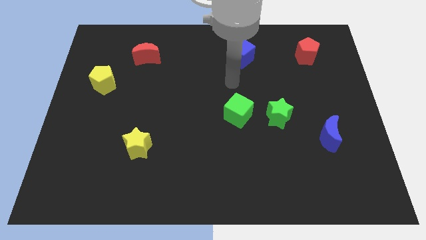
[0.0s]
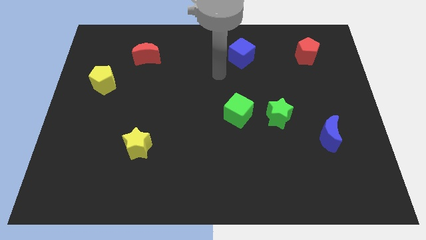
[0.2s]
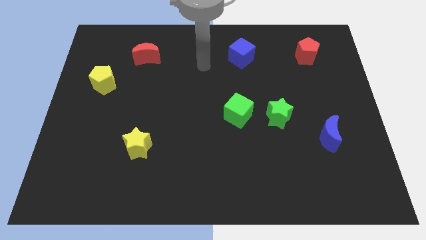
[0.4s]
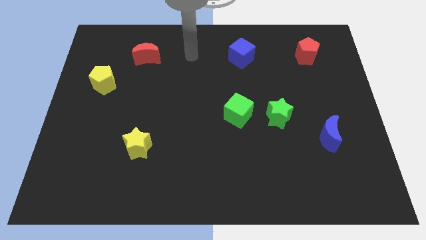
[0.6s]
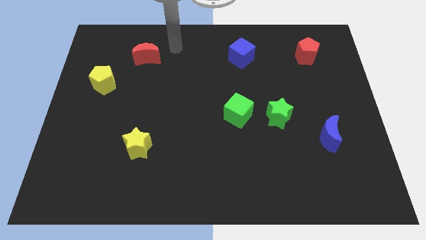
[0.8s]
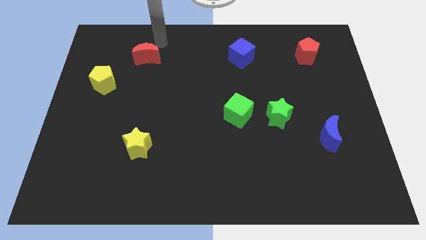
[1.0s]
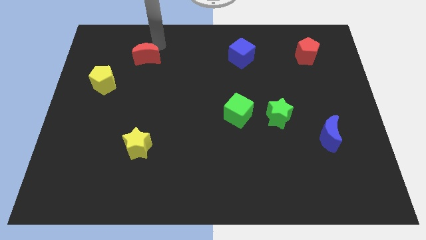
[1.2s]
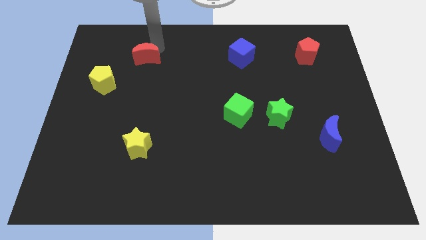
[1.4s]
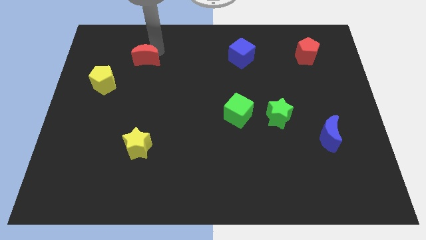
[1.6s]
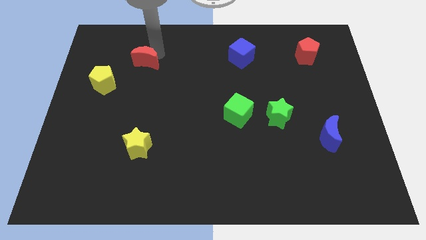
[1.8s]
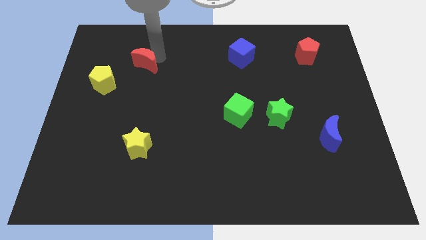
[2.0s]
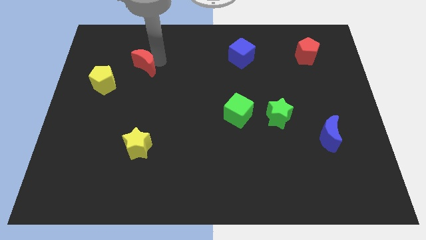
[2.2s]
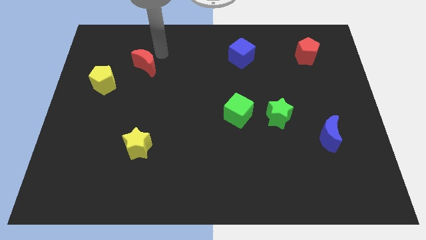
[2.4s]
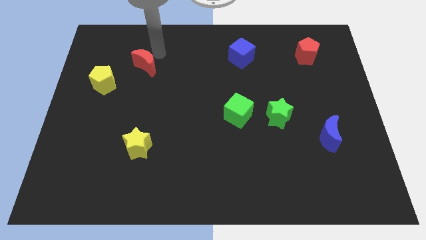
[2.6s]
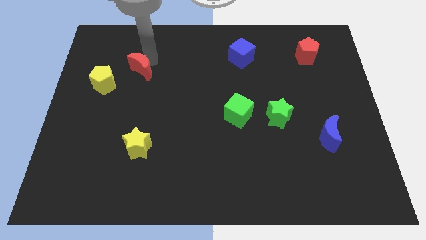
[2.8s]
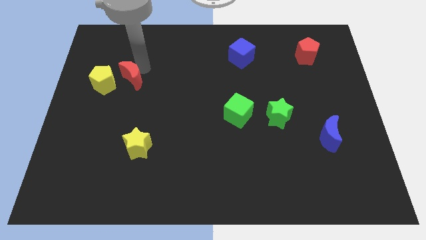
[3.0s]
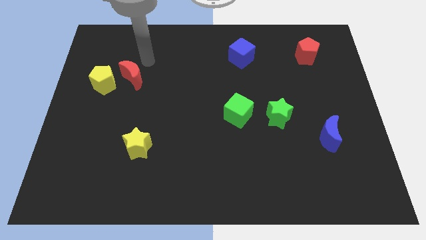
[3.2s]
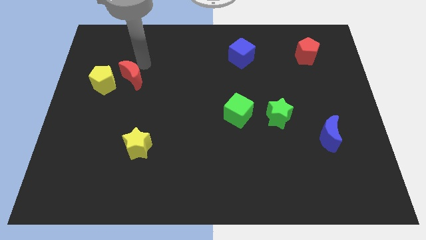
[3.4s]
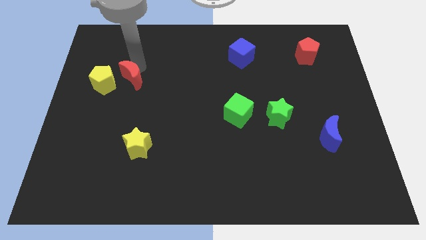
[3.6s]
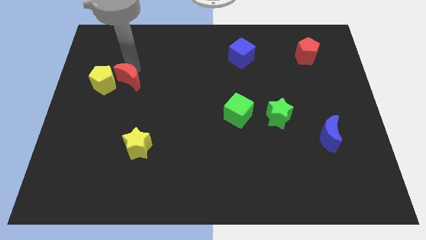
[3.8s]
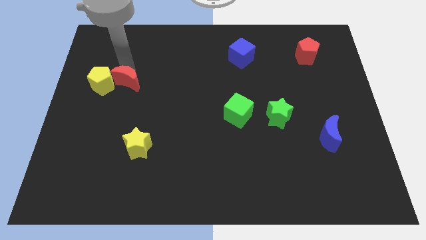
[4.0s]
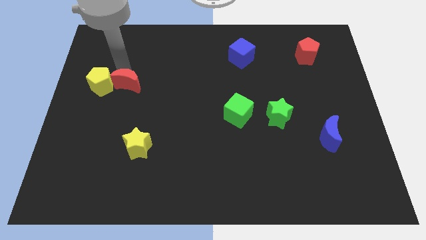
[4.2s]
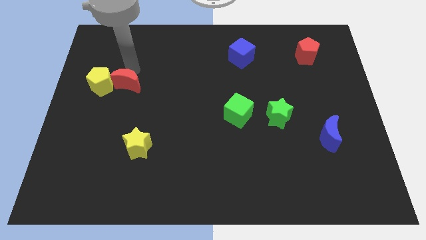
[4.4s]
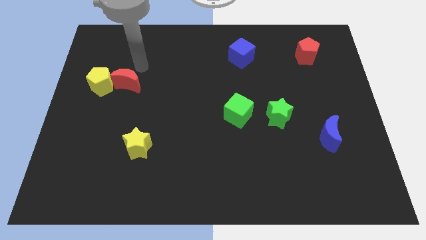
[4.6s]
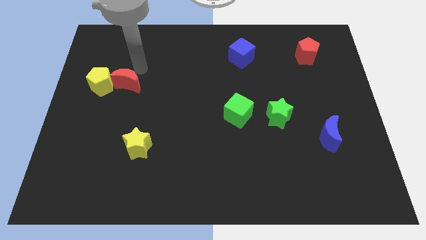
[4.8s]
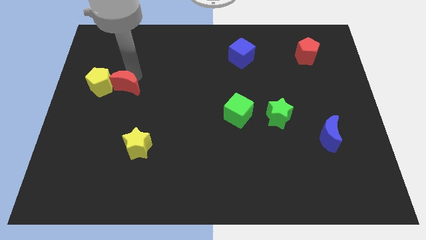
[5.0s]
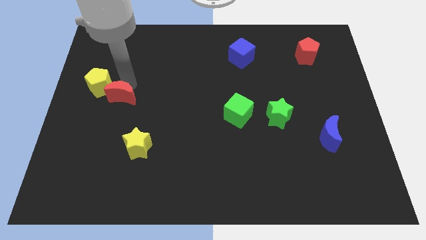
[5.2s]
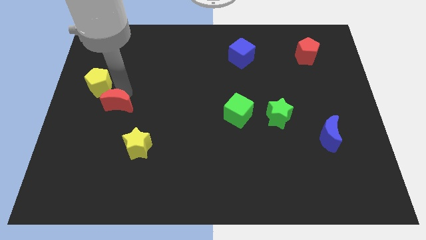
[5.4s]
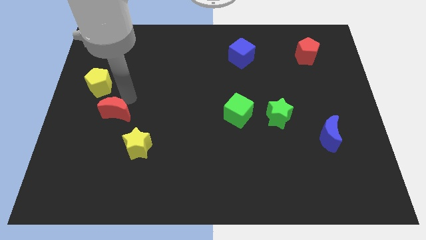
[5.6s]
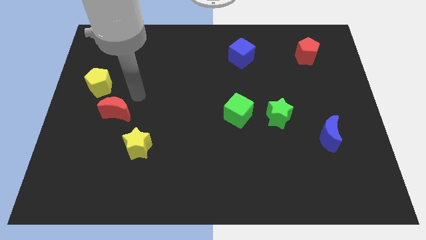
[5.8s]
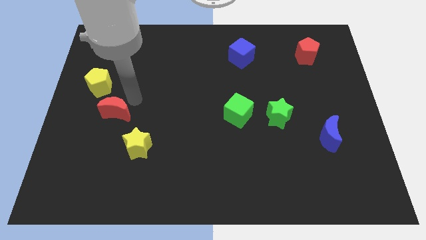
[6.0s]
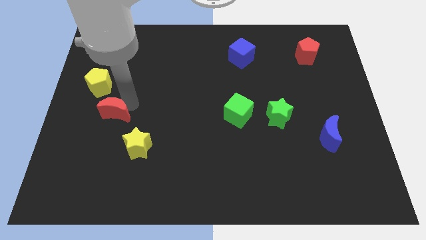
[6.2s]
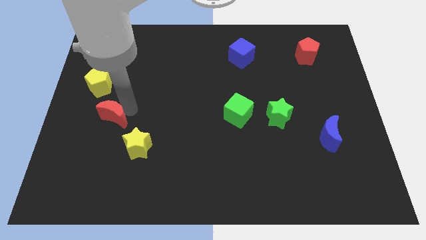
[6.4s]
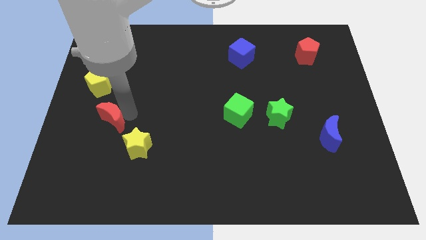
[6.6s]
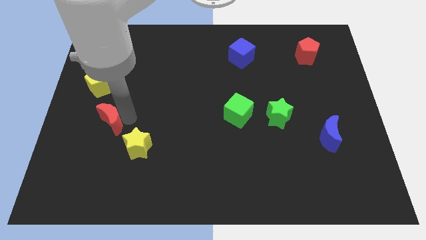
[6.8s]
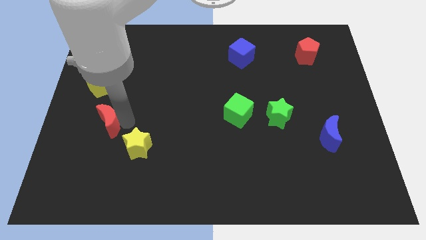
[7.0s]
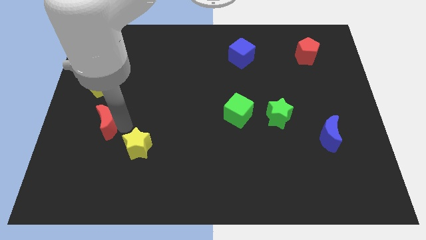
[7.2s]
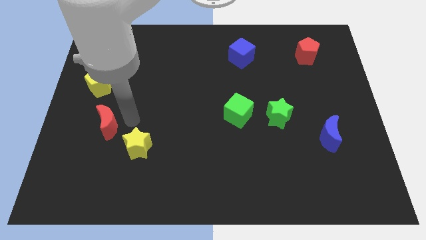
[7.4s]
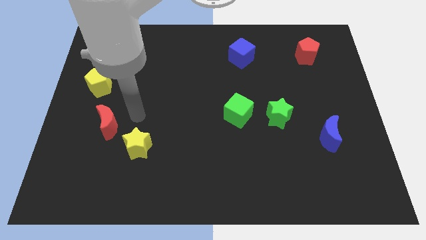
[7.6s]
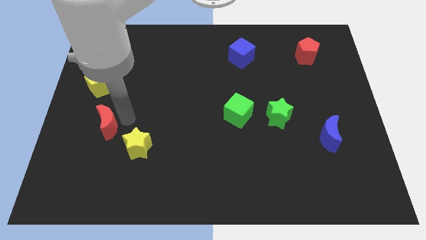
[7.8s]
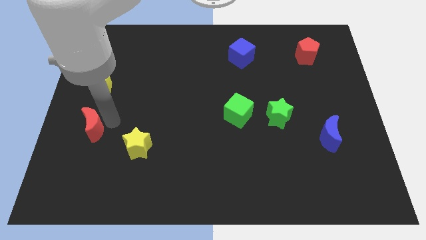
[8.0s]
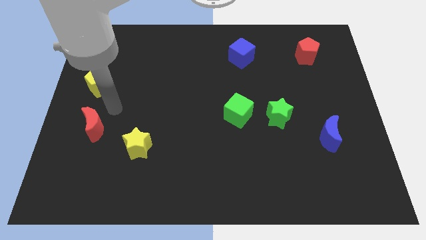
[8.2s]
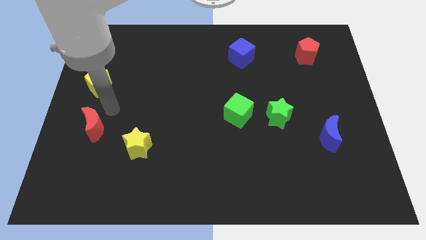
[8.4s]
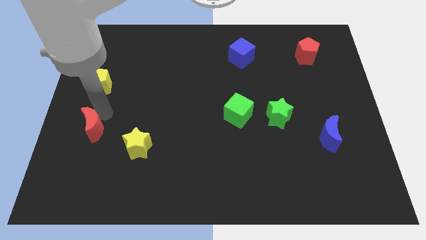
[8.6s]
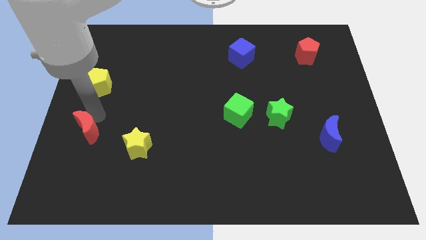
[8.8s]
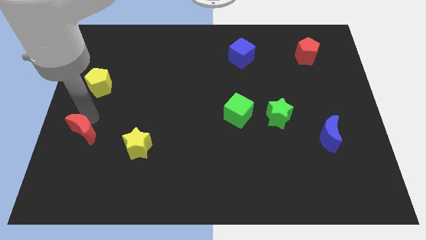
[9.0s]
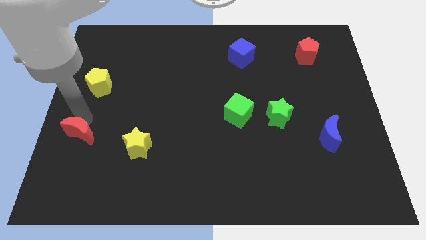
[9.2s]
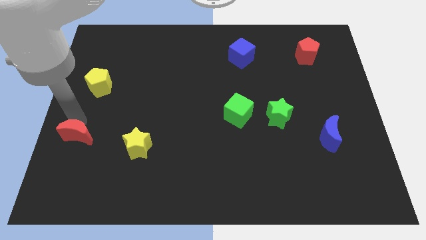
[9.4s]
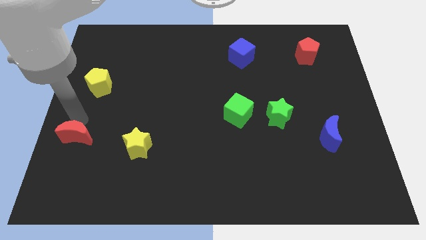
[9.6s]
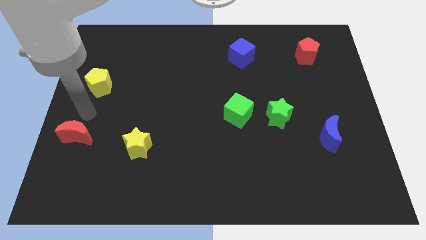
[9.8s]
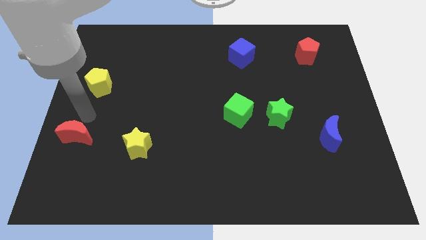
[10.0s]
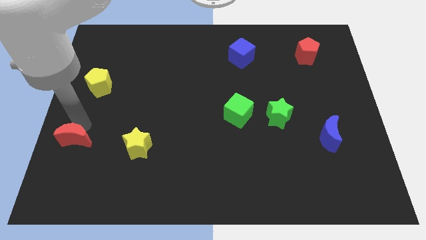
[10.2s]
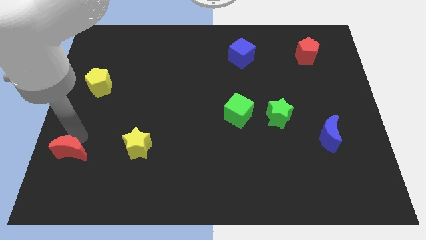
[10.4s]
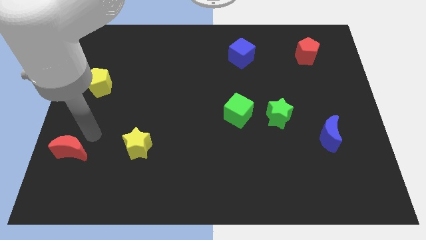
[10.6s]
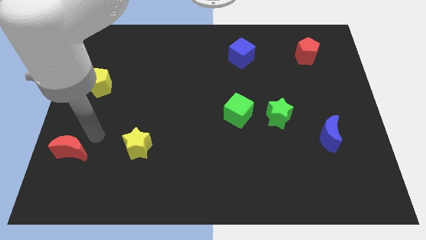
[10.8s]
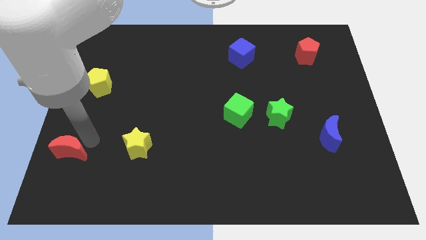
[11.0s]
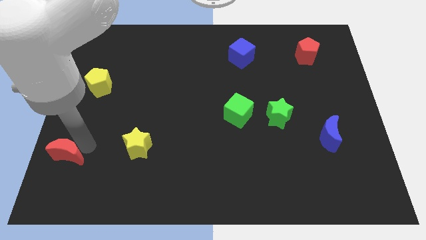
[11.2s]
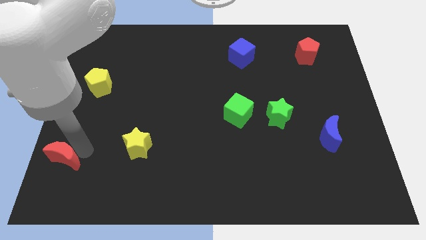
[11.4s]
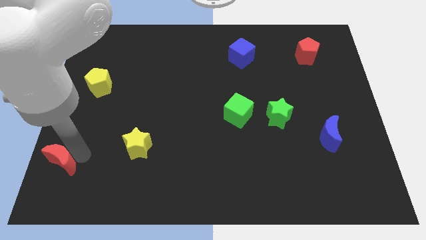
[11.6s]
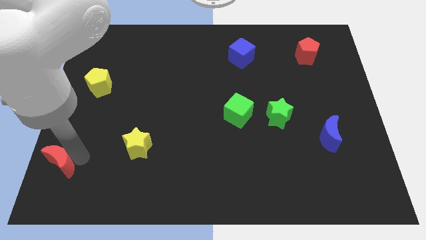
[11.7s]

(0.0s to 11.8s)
put the red moon to the bottom left corner

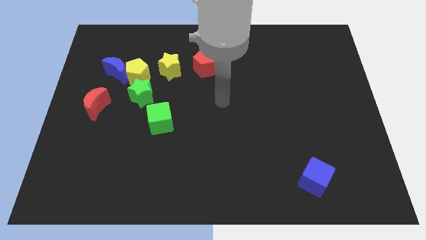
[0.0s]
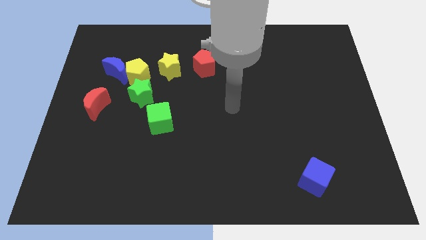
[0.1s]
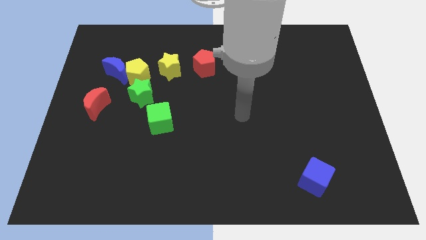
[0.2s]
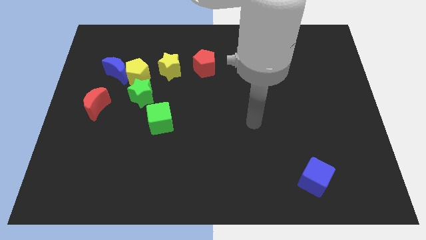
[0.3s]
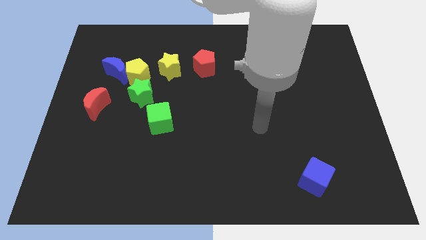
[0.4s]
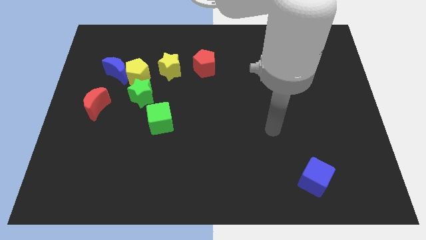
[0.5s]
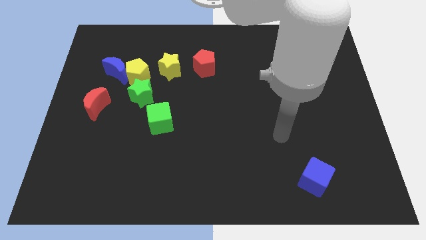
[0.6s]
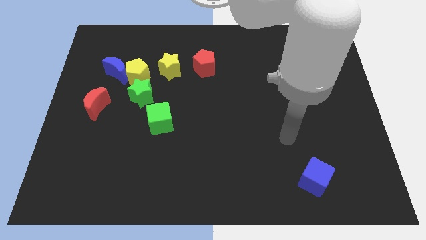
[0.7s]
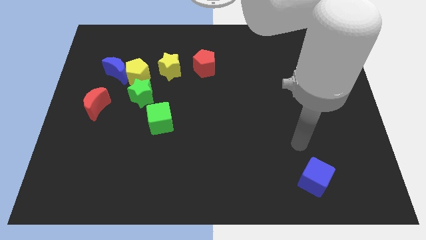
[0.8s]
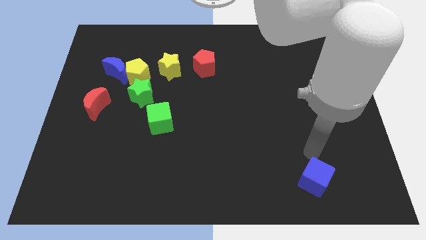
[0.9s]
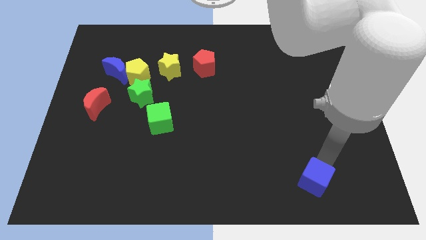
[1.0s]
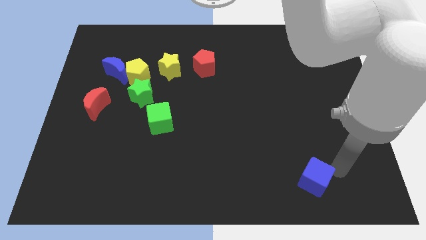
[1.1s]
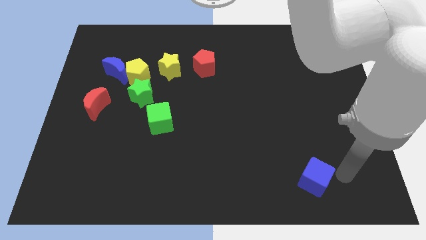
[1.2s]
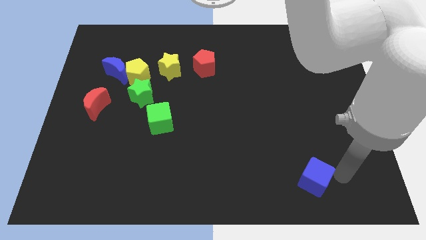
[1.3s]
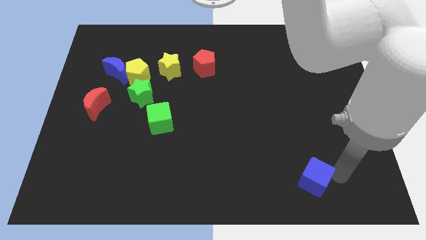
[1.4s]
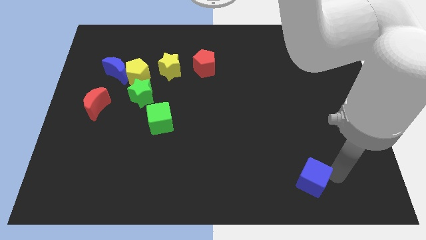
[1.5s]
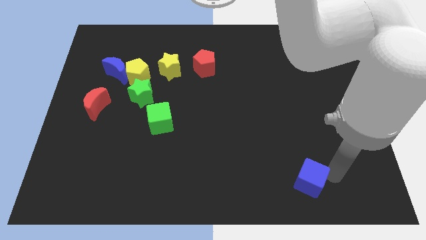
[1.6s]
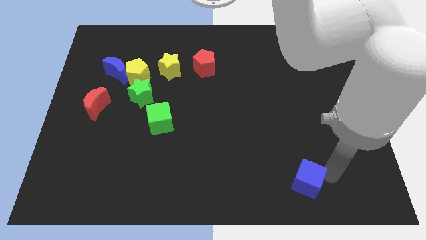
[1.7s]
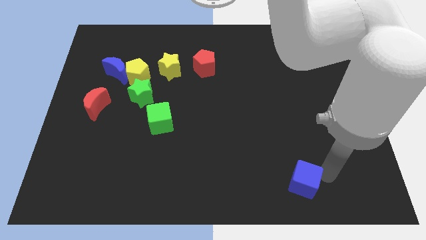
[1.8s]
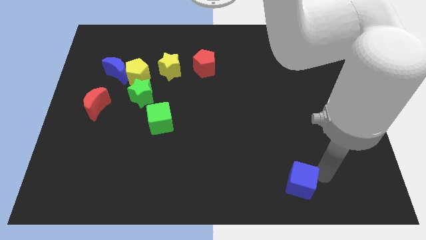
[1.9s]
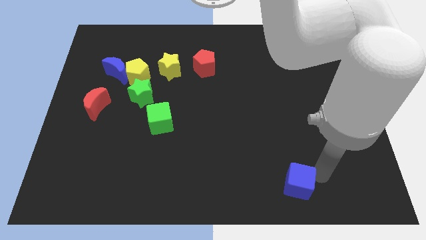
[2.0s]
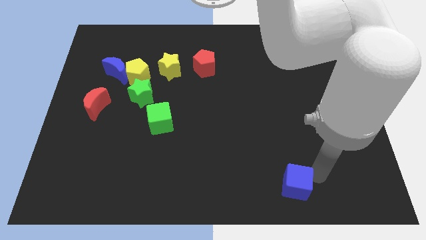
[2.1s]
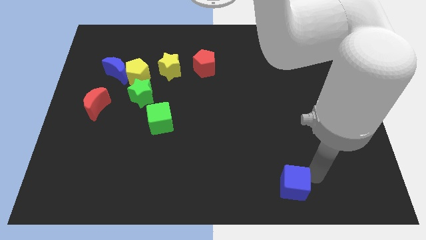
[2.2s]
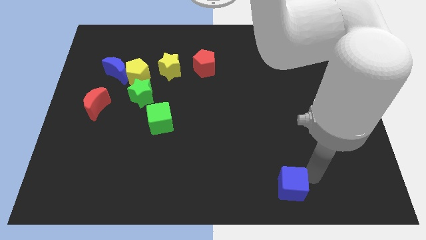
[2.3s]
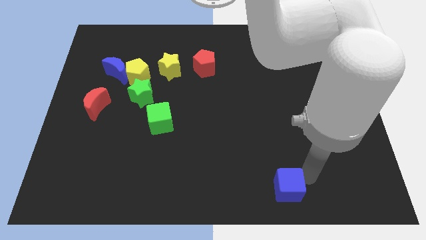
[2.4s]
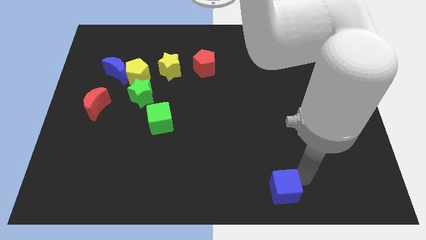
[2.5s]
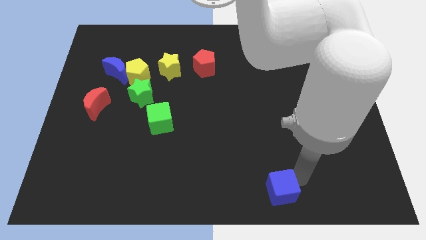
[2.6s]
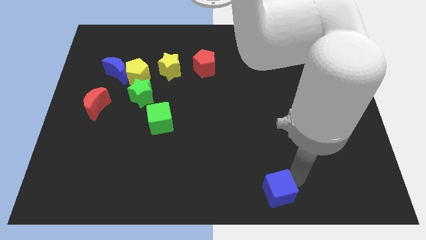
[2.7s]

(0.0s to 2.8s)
push the blue cube to the bottom side
